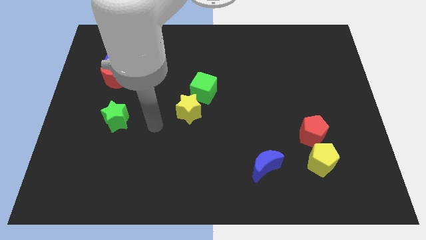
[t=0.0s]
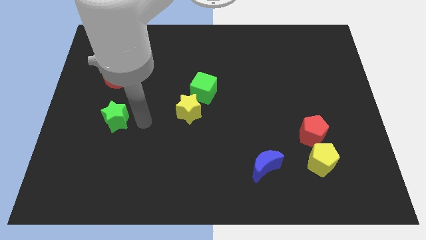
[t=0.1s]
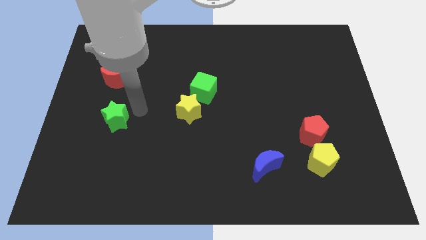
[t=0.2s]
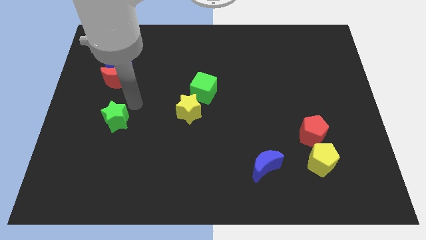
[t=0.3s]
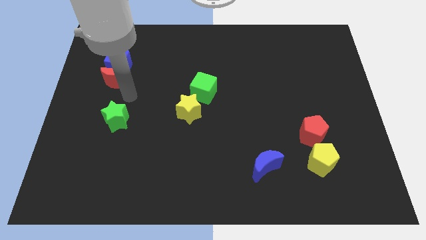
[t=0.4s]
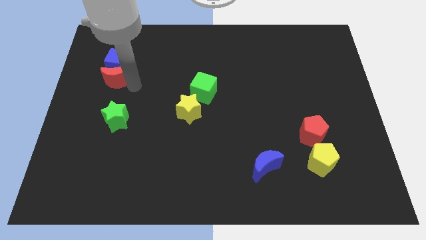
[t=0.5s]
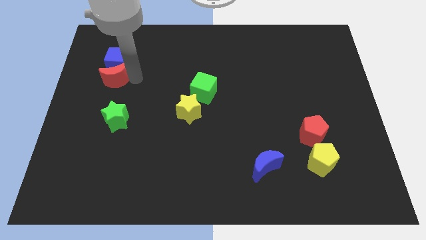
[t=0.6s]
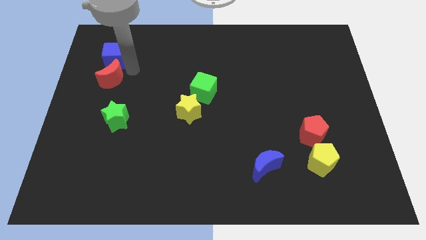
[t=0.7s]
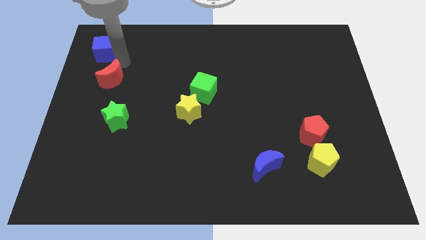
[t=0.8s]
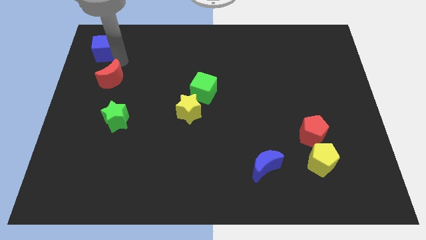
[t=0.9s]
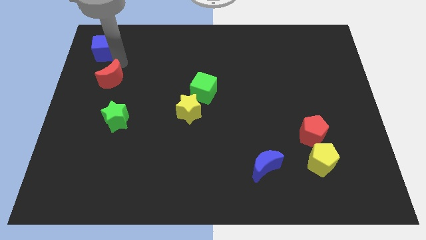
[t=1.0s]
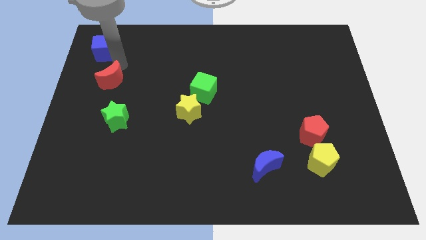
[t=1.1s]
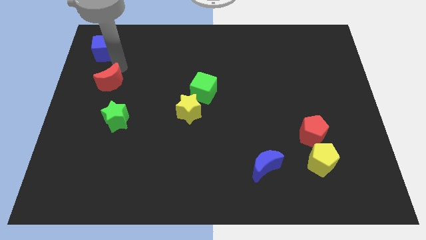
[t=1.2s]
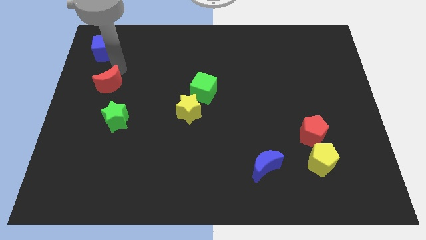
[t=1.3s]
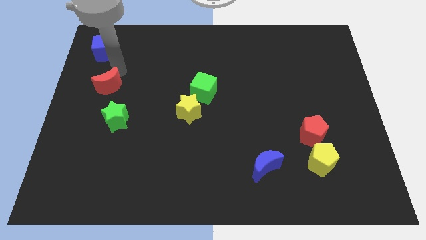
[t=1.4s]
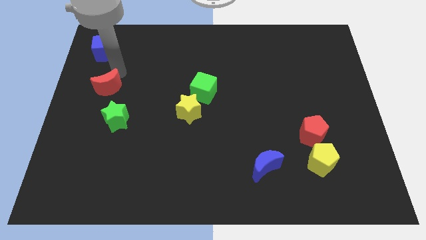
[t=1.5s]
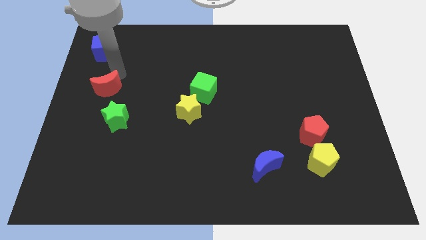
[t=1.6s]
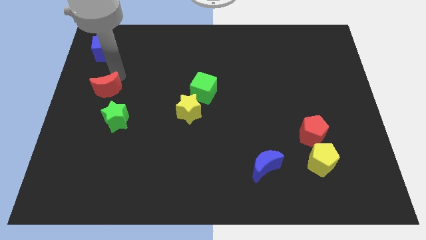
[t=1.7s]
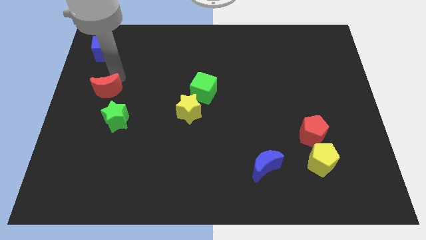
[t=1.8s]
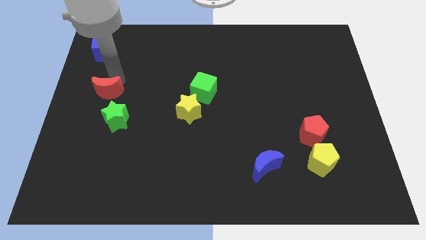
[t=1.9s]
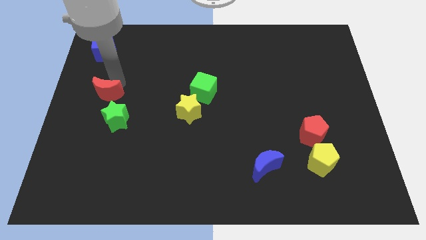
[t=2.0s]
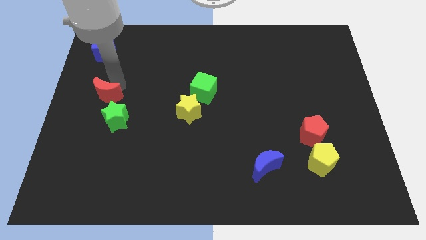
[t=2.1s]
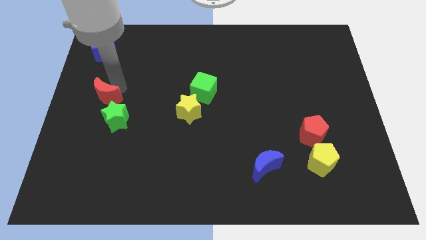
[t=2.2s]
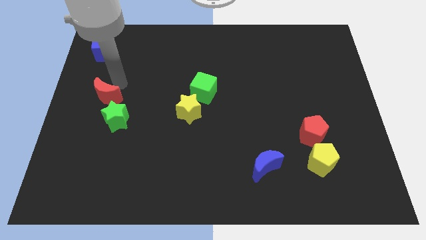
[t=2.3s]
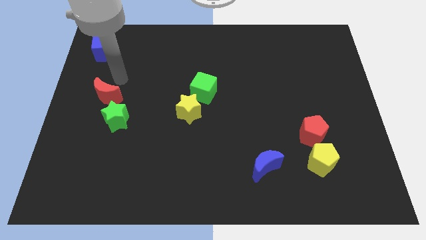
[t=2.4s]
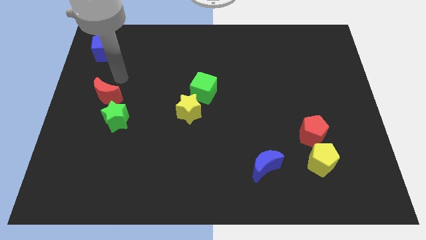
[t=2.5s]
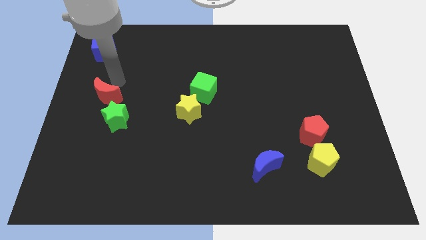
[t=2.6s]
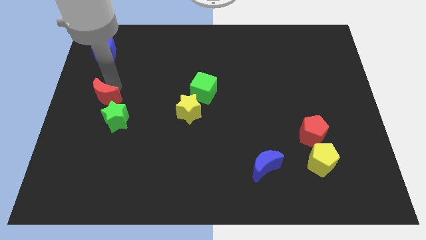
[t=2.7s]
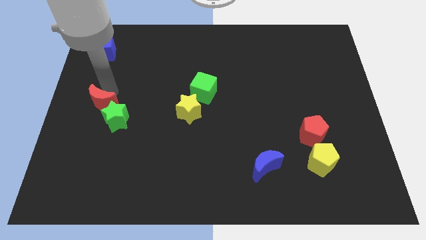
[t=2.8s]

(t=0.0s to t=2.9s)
move the red moon a little downwards

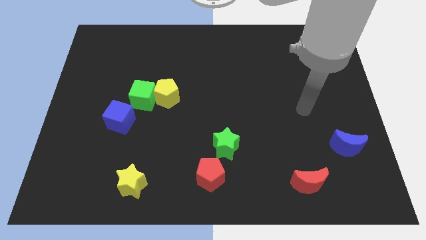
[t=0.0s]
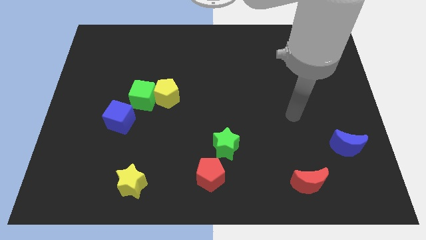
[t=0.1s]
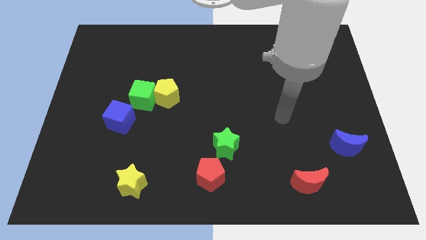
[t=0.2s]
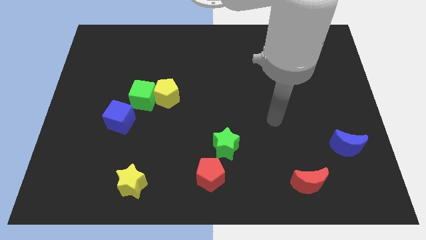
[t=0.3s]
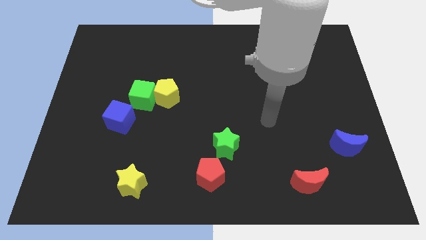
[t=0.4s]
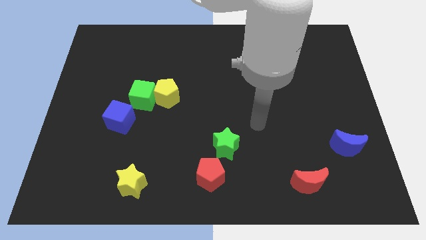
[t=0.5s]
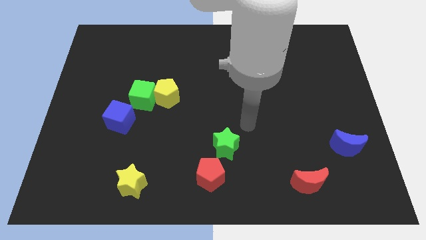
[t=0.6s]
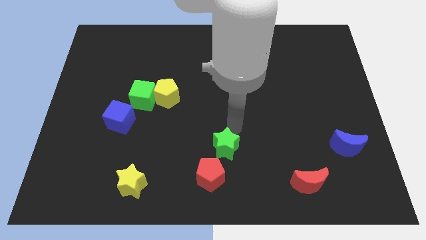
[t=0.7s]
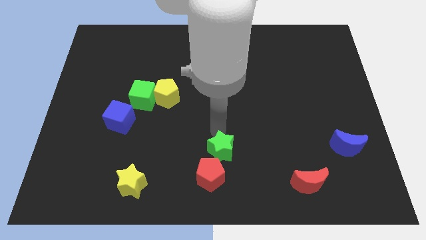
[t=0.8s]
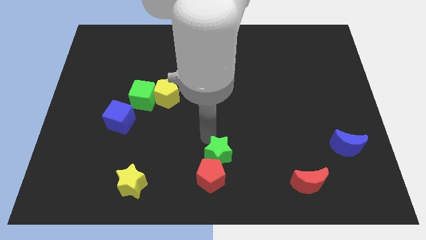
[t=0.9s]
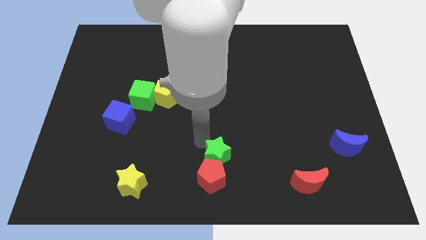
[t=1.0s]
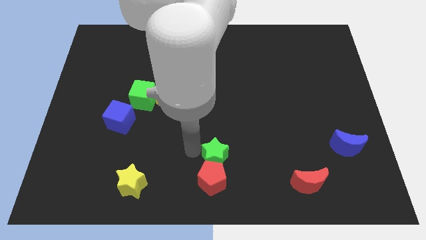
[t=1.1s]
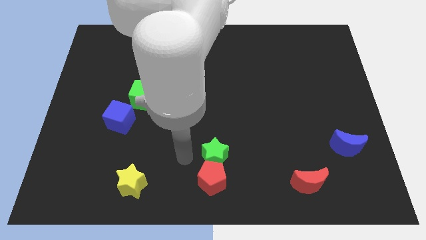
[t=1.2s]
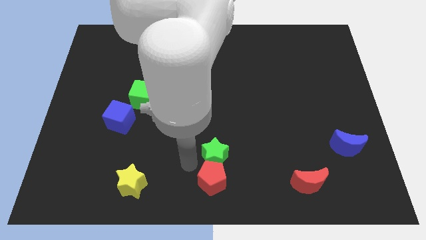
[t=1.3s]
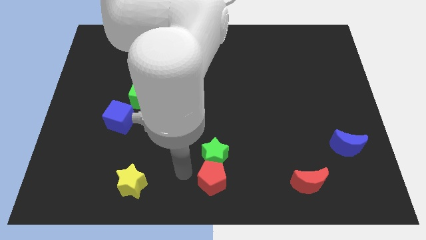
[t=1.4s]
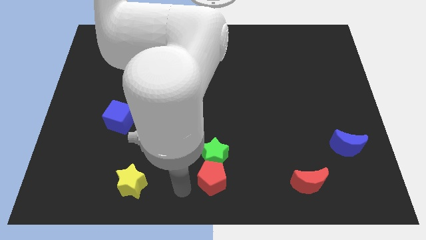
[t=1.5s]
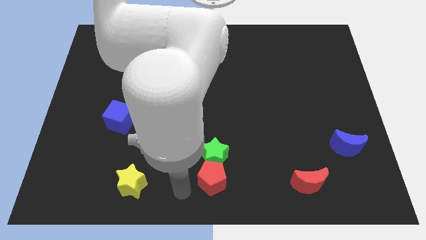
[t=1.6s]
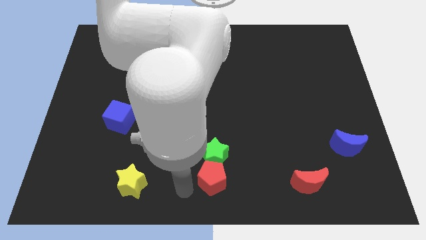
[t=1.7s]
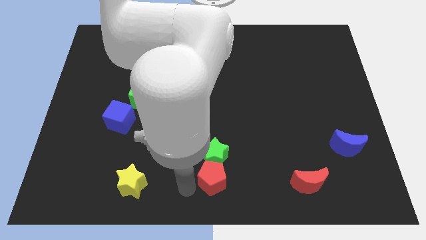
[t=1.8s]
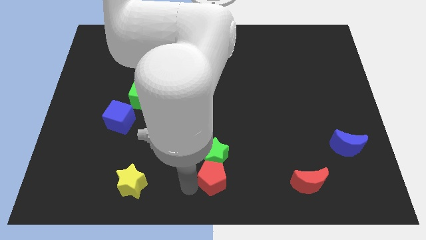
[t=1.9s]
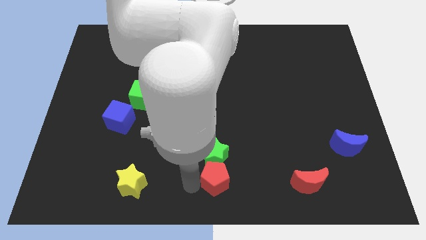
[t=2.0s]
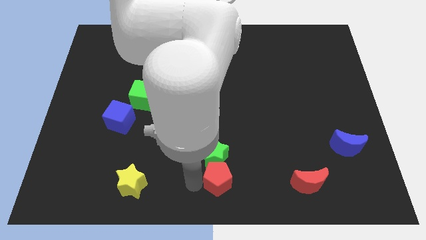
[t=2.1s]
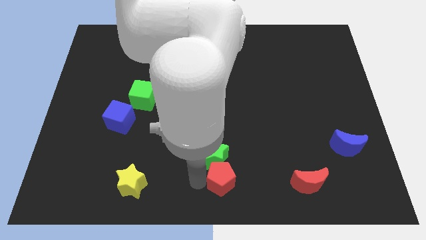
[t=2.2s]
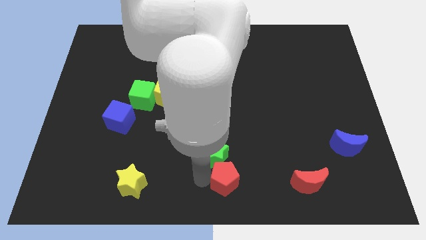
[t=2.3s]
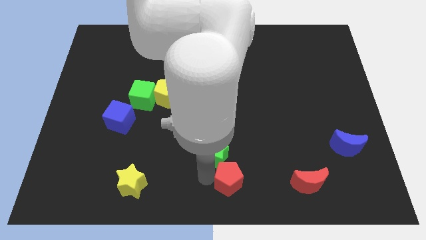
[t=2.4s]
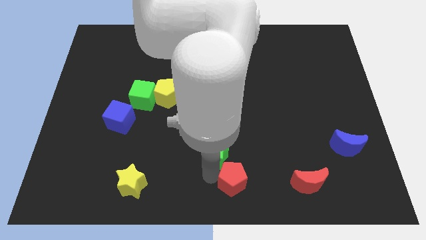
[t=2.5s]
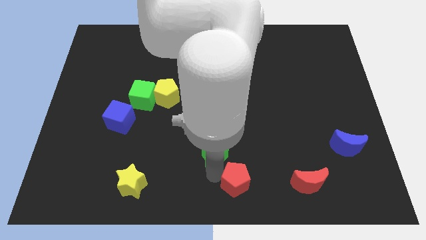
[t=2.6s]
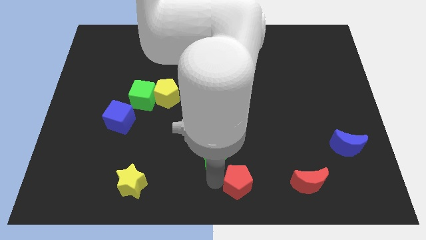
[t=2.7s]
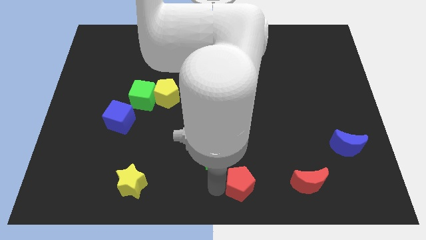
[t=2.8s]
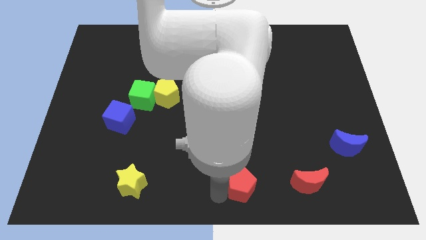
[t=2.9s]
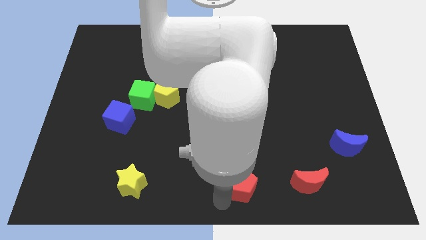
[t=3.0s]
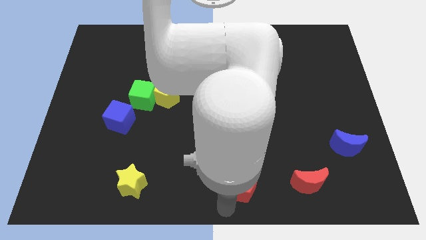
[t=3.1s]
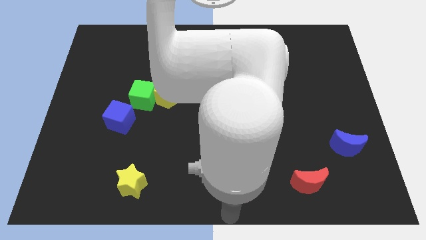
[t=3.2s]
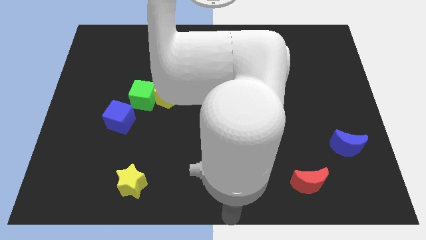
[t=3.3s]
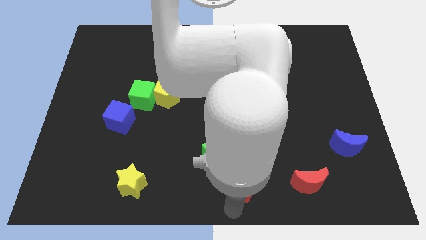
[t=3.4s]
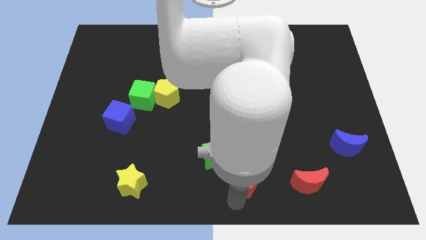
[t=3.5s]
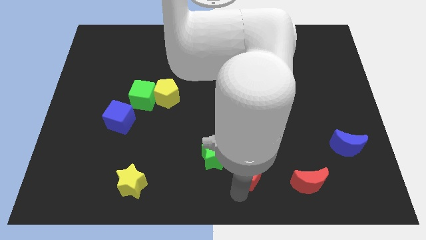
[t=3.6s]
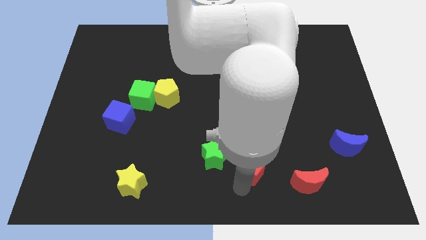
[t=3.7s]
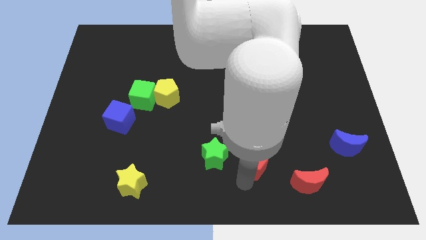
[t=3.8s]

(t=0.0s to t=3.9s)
slide the red pentagon a little bit upwards and then to the right

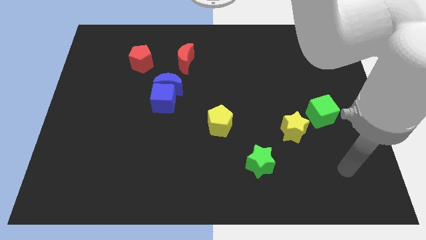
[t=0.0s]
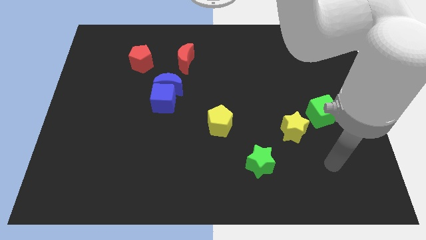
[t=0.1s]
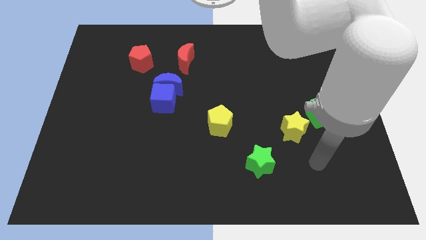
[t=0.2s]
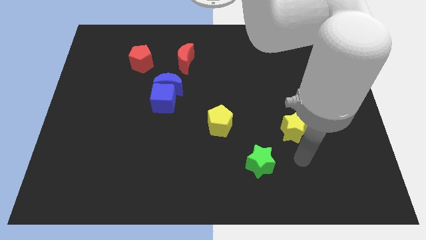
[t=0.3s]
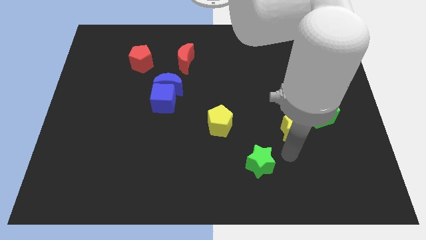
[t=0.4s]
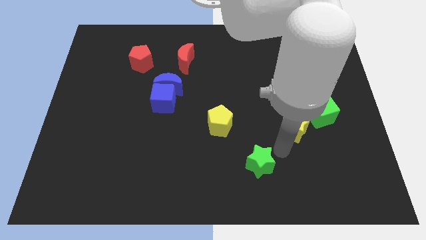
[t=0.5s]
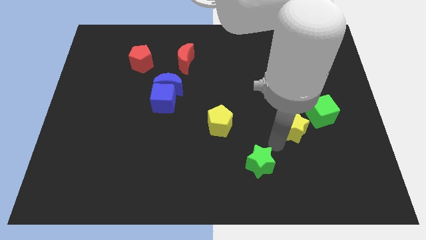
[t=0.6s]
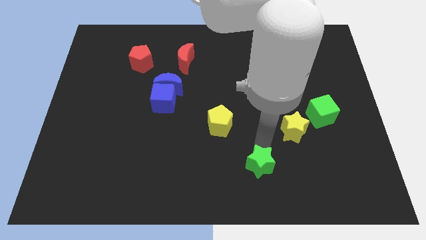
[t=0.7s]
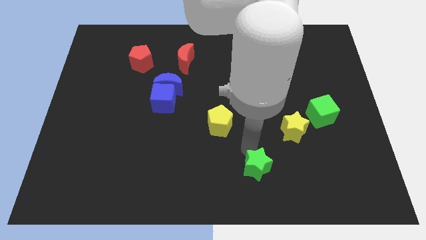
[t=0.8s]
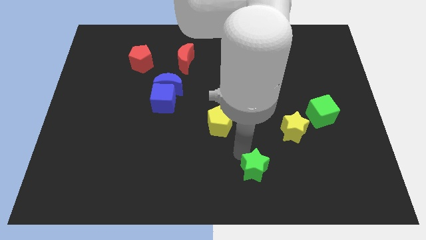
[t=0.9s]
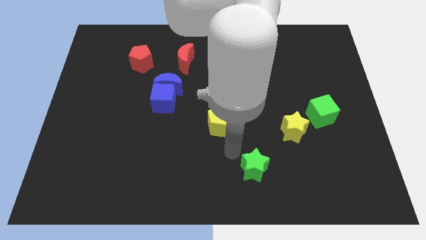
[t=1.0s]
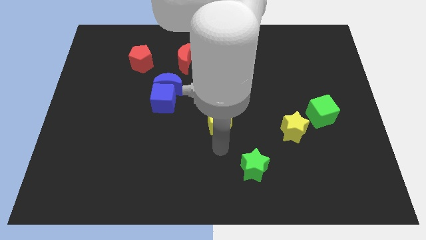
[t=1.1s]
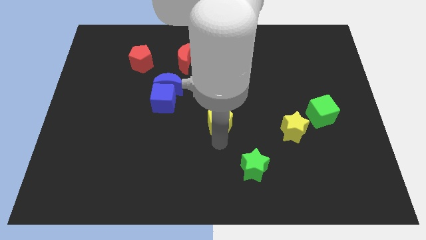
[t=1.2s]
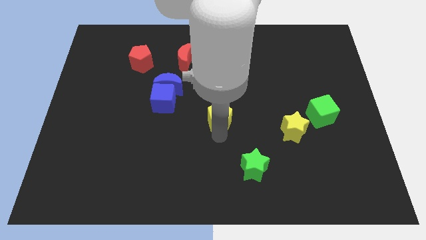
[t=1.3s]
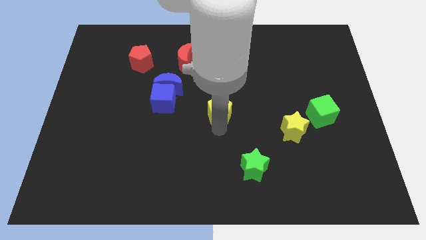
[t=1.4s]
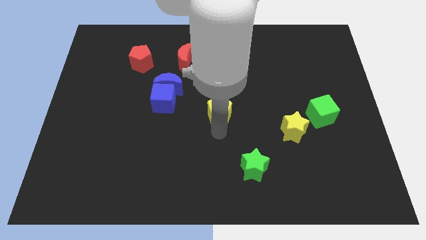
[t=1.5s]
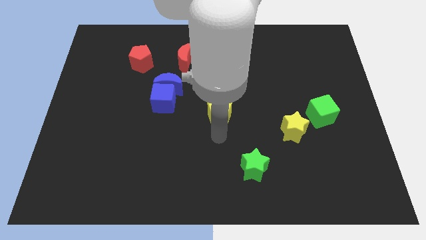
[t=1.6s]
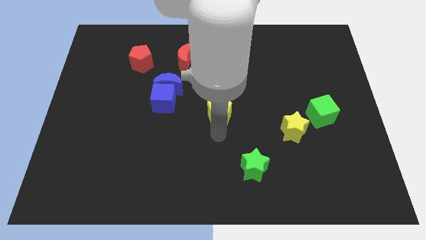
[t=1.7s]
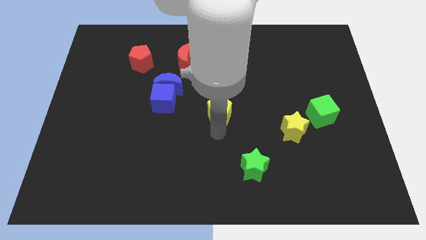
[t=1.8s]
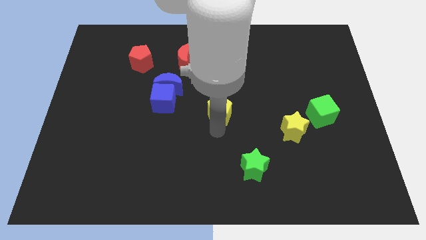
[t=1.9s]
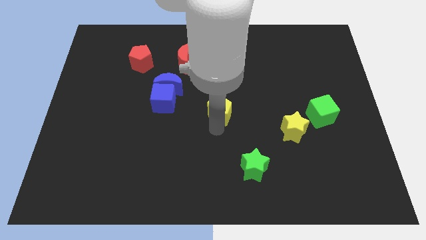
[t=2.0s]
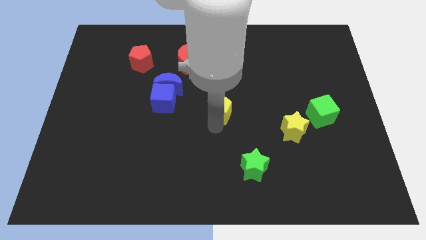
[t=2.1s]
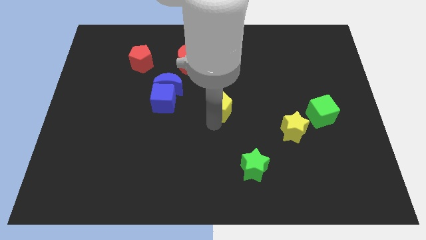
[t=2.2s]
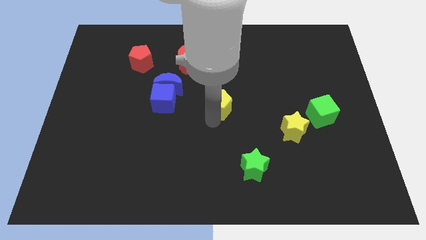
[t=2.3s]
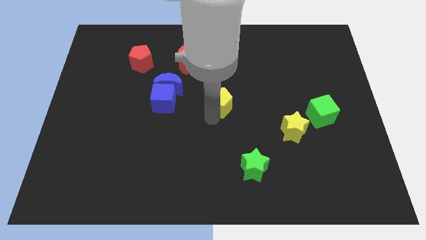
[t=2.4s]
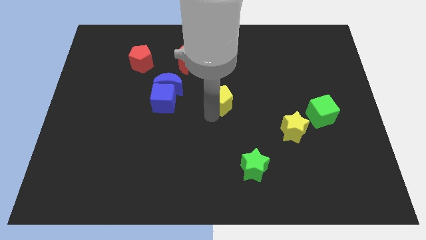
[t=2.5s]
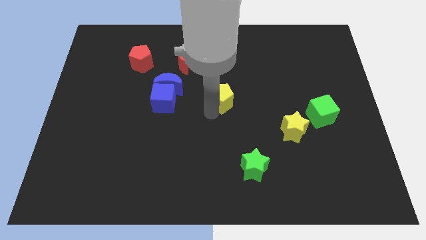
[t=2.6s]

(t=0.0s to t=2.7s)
slightly push the yellow pentagon up
